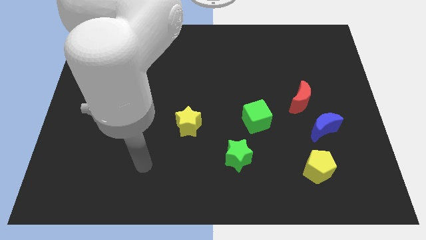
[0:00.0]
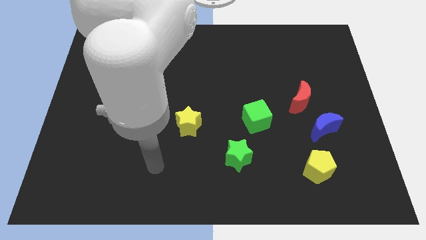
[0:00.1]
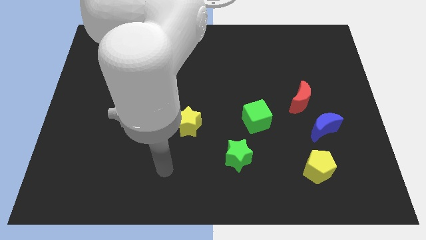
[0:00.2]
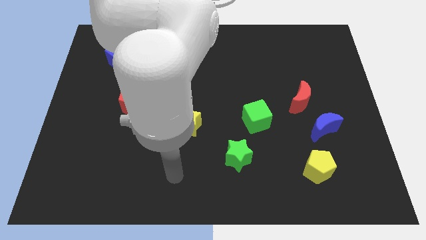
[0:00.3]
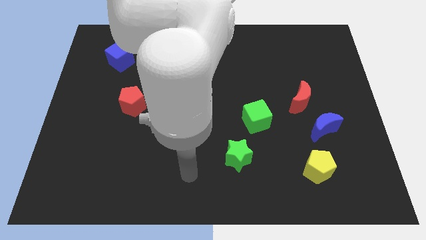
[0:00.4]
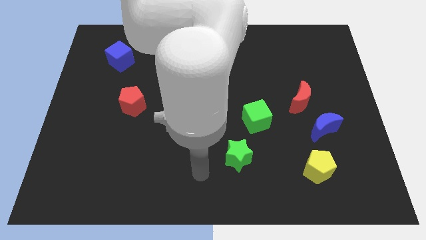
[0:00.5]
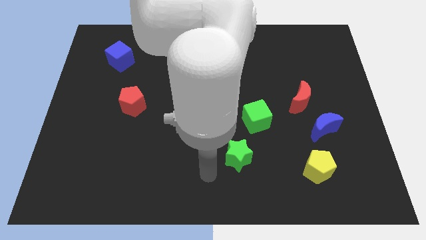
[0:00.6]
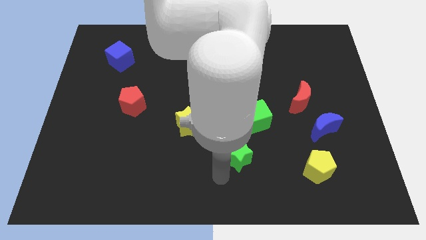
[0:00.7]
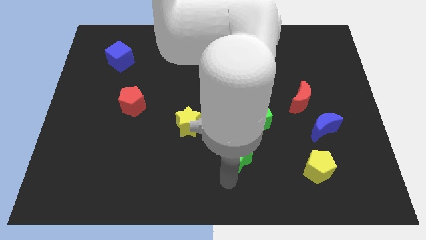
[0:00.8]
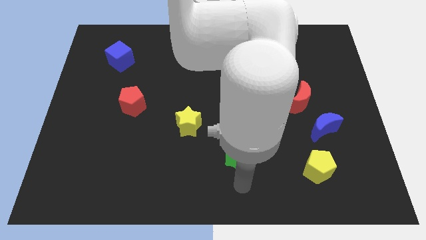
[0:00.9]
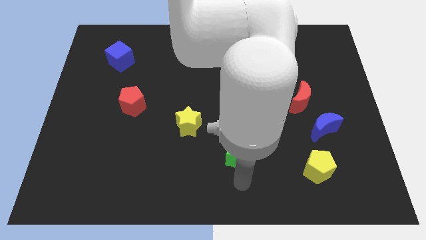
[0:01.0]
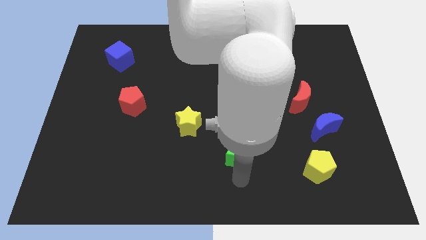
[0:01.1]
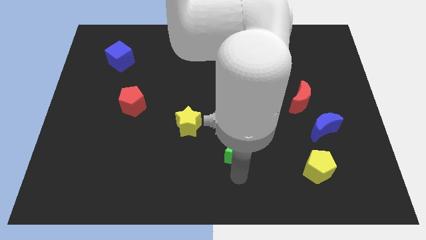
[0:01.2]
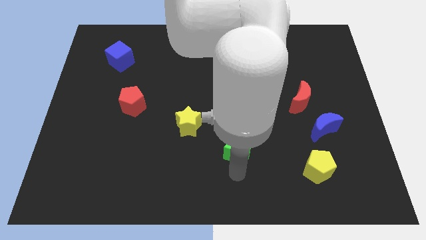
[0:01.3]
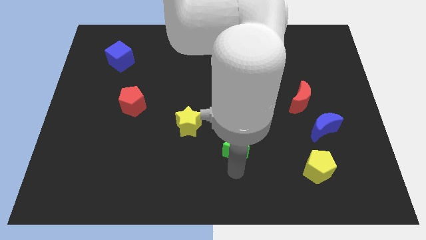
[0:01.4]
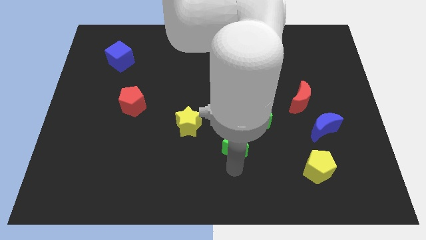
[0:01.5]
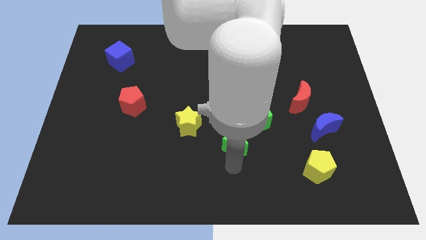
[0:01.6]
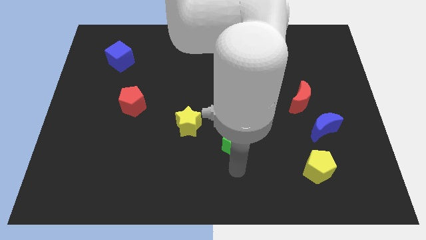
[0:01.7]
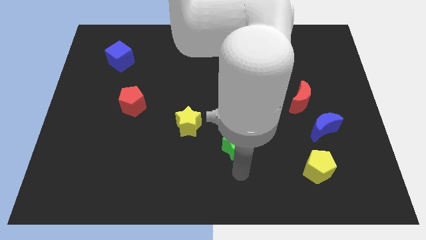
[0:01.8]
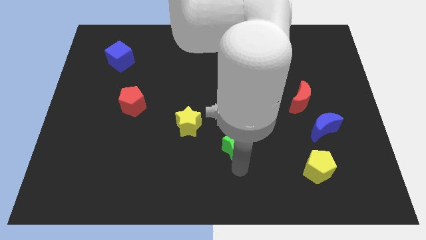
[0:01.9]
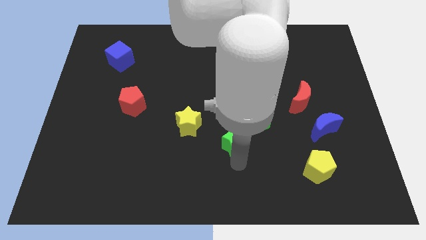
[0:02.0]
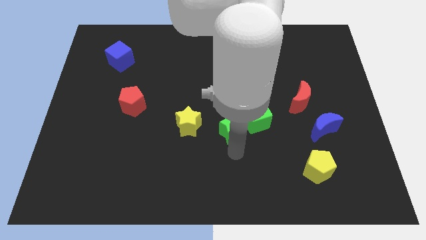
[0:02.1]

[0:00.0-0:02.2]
move the green star up a little bit

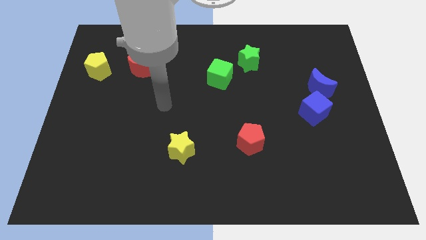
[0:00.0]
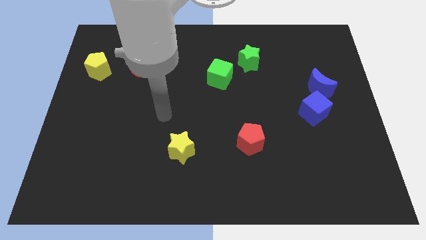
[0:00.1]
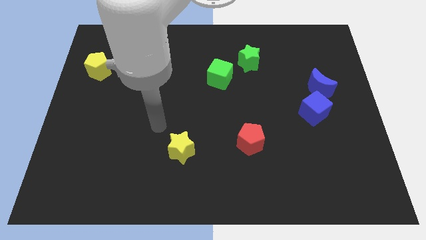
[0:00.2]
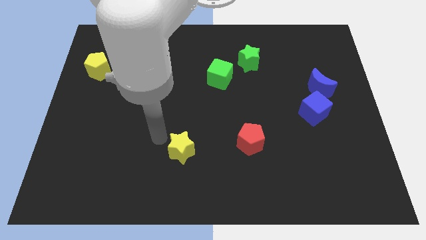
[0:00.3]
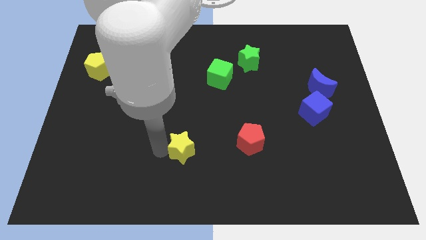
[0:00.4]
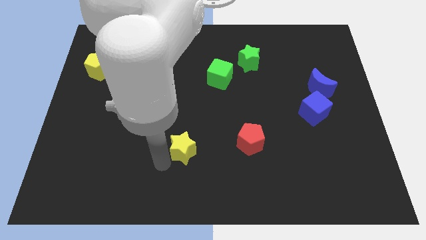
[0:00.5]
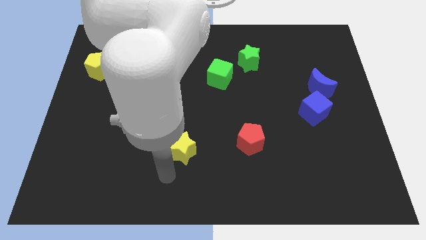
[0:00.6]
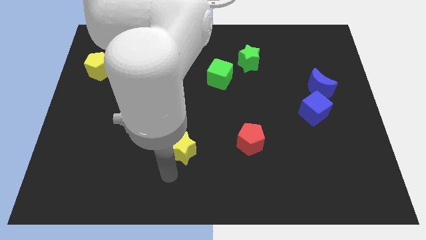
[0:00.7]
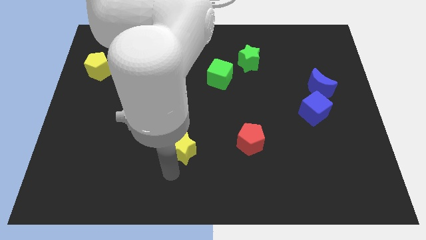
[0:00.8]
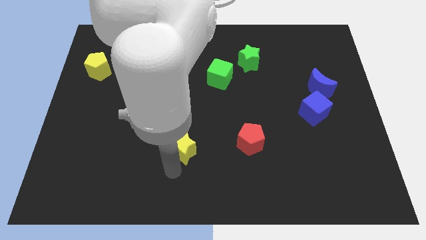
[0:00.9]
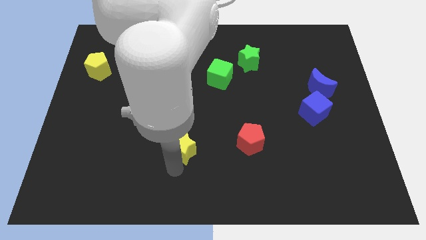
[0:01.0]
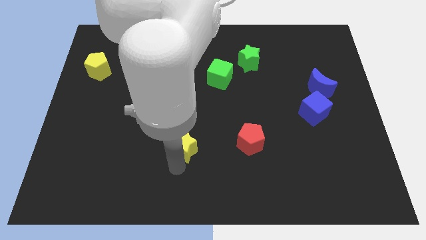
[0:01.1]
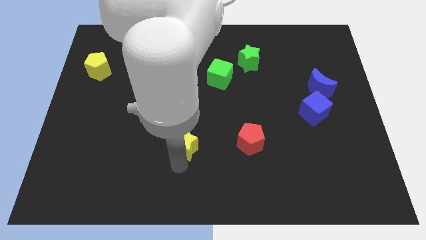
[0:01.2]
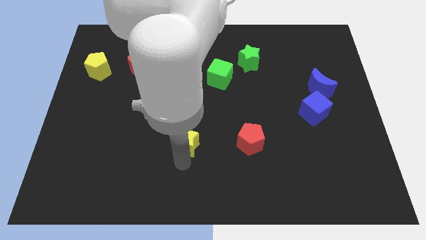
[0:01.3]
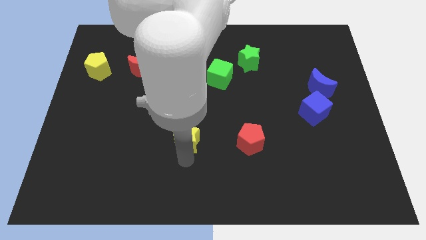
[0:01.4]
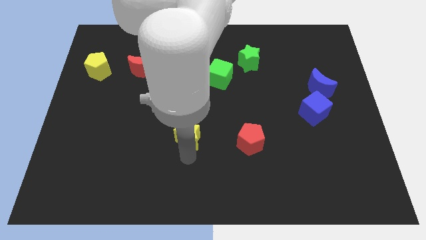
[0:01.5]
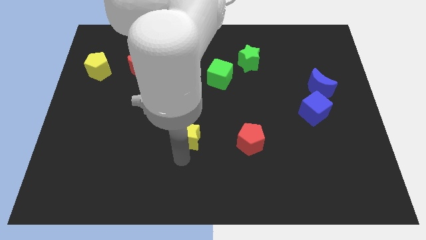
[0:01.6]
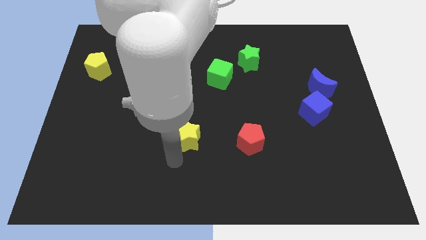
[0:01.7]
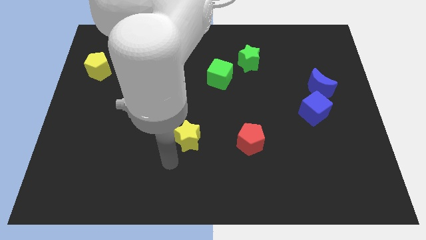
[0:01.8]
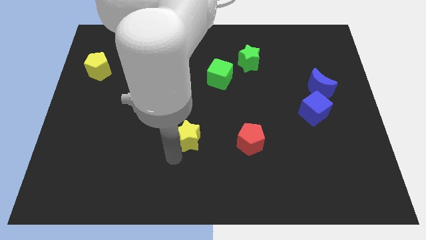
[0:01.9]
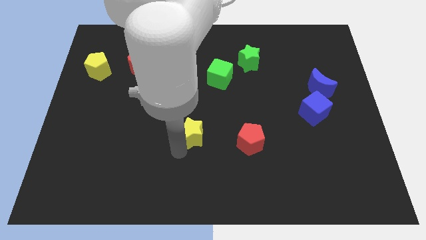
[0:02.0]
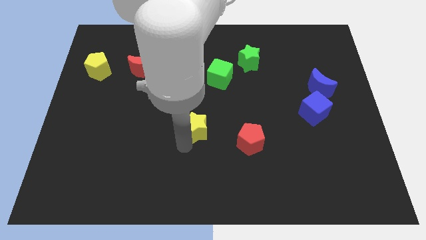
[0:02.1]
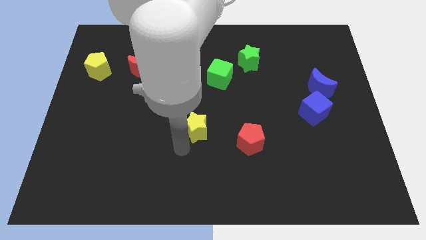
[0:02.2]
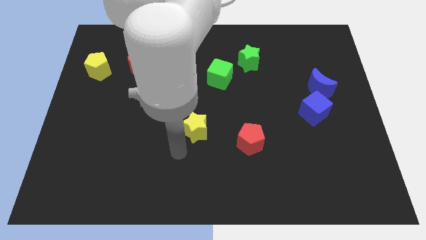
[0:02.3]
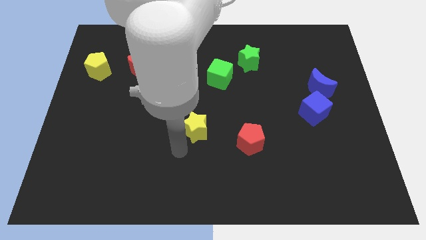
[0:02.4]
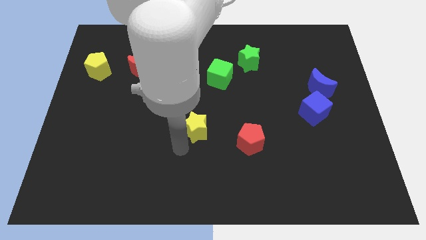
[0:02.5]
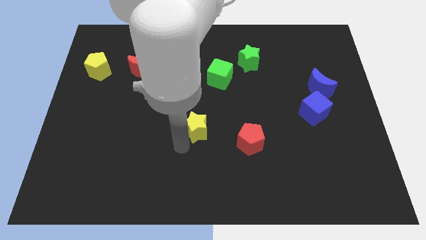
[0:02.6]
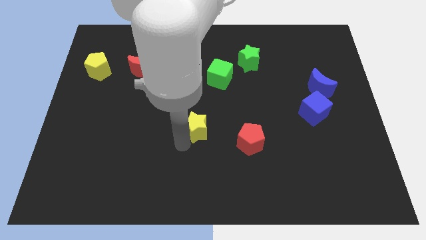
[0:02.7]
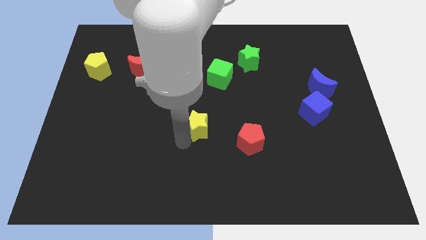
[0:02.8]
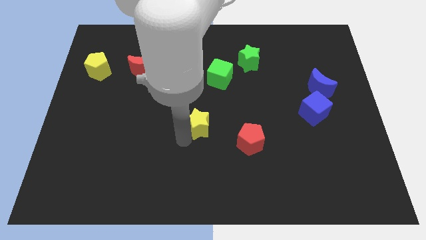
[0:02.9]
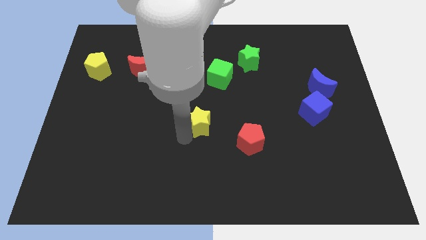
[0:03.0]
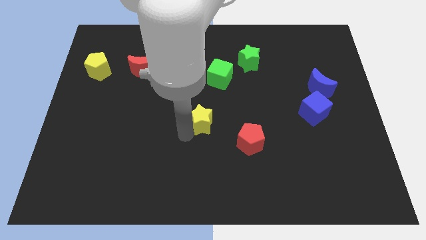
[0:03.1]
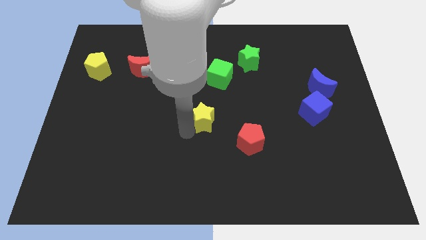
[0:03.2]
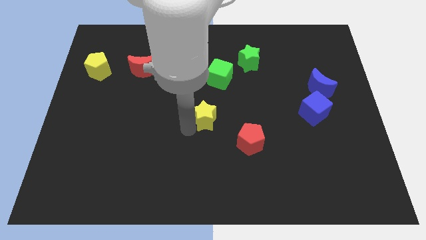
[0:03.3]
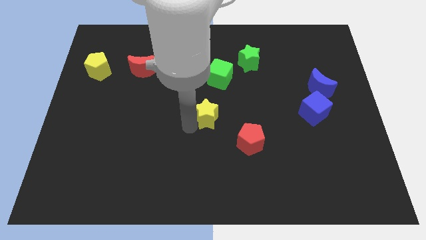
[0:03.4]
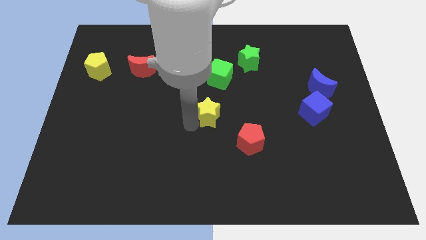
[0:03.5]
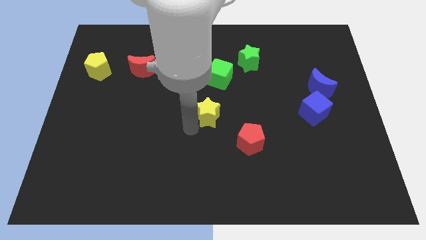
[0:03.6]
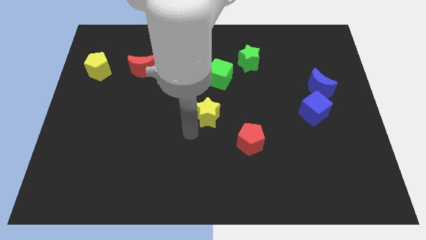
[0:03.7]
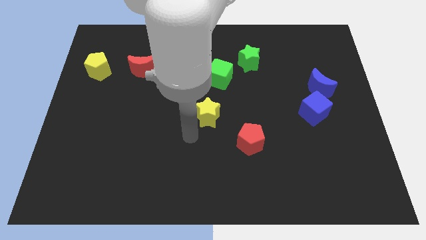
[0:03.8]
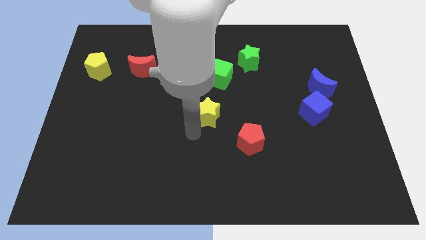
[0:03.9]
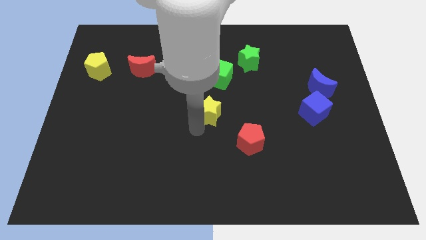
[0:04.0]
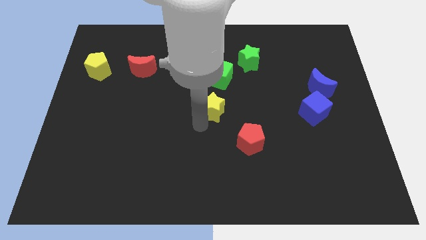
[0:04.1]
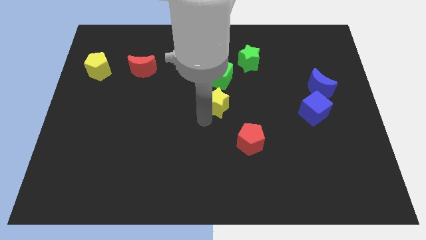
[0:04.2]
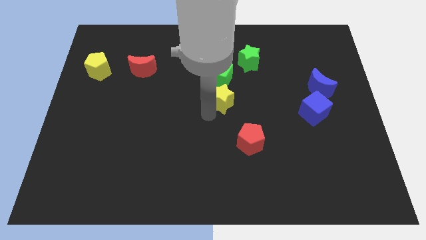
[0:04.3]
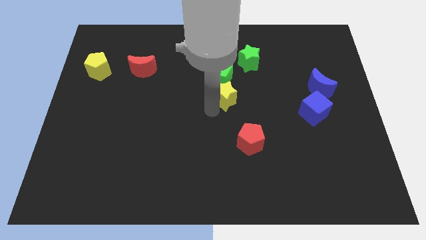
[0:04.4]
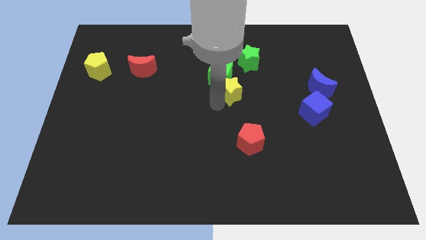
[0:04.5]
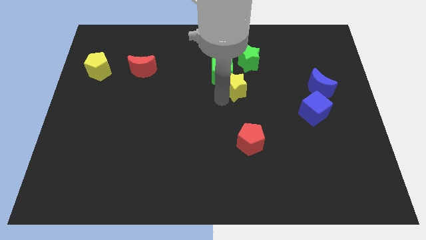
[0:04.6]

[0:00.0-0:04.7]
slide the yellow star upwards and then to the right

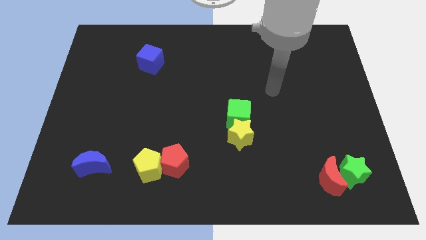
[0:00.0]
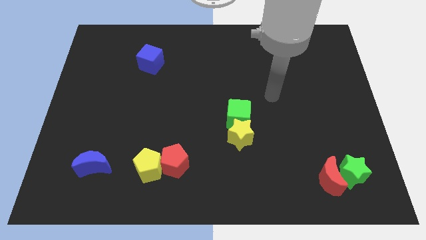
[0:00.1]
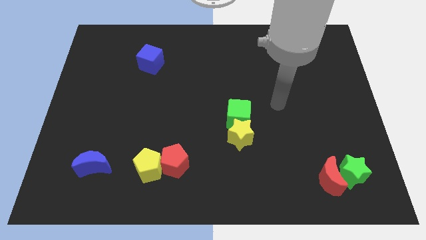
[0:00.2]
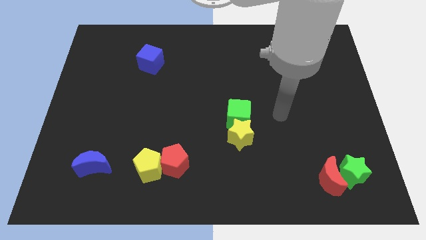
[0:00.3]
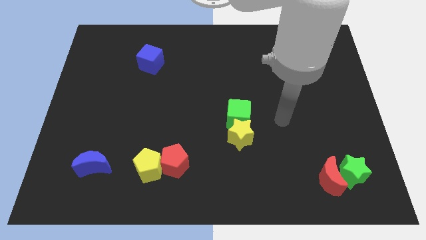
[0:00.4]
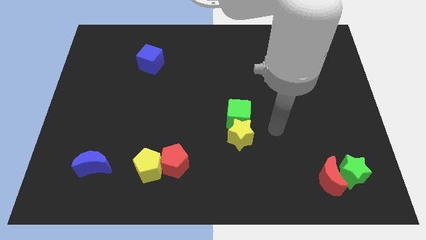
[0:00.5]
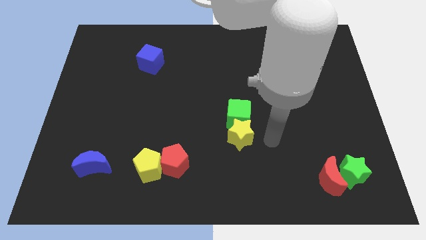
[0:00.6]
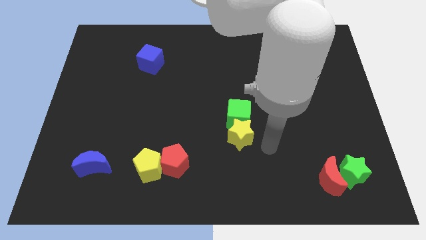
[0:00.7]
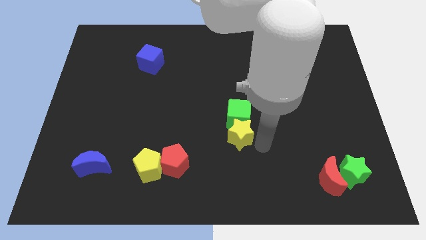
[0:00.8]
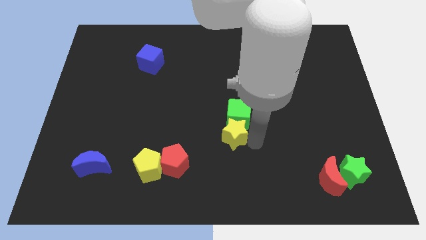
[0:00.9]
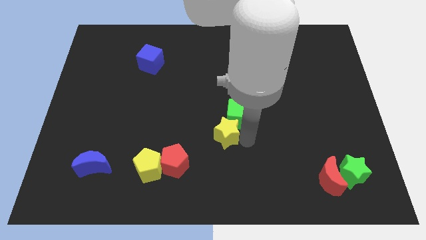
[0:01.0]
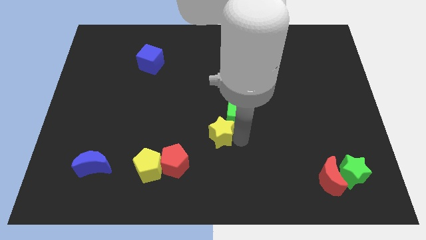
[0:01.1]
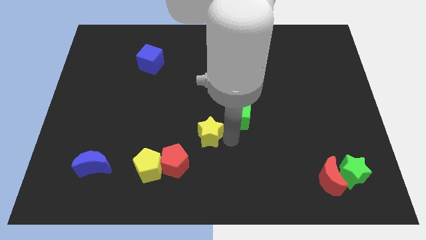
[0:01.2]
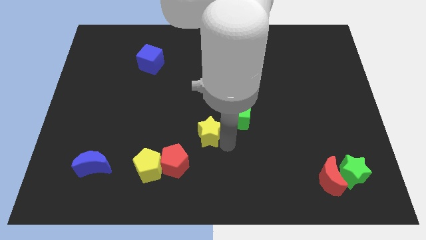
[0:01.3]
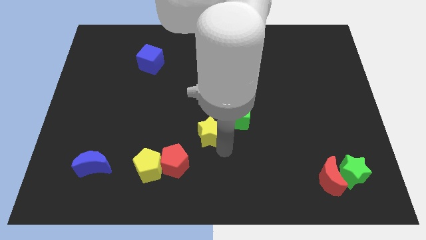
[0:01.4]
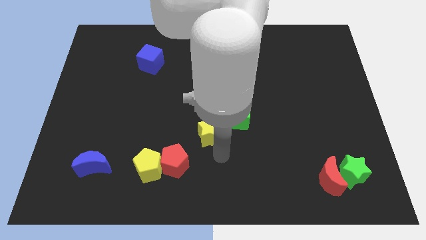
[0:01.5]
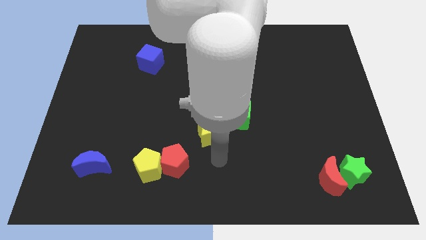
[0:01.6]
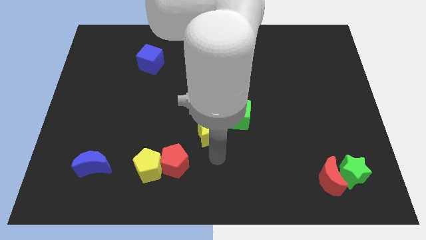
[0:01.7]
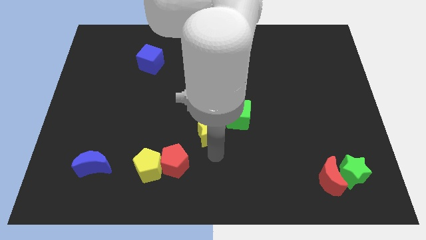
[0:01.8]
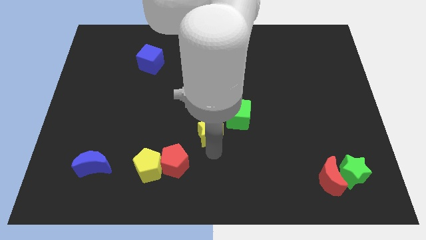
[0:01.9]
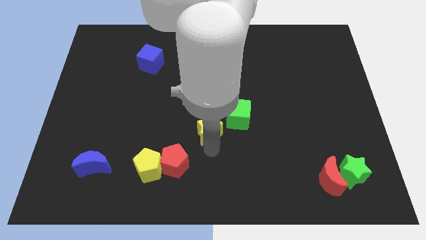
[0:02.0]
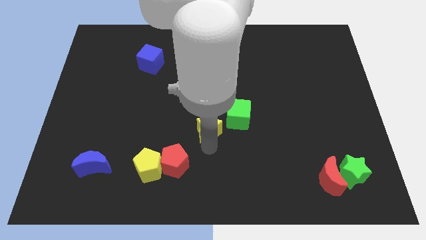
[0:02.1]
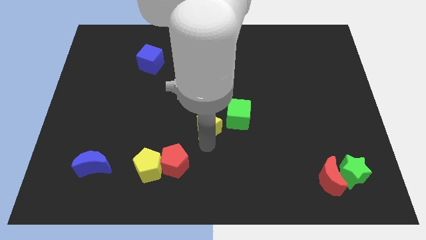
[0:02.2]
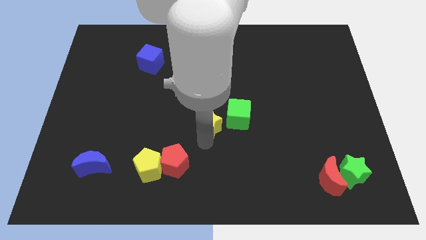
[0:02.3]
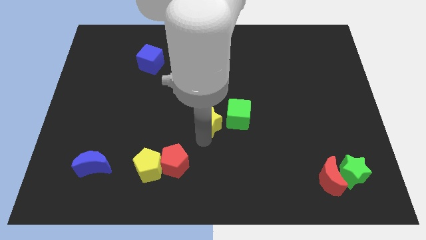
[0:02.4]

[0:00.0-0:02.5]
slide the yellow star diagonally upwards and left a little bit
